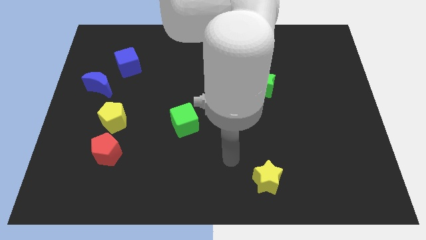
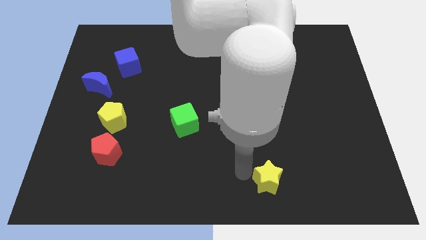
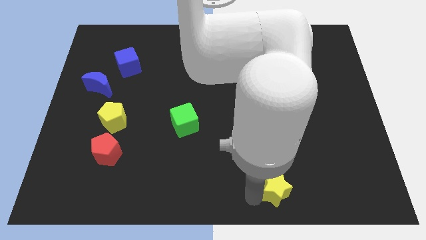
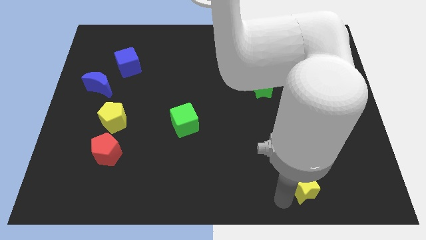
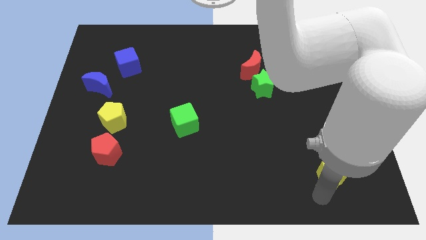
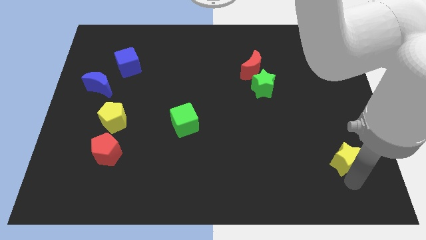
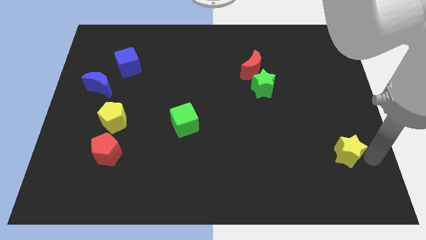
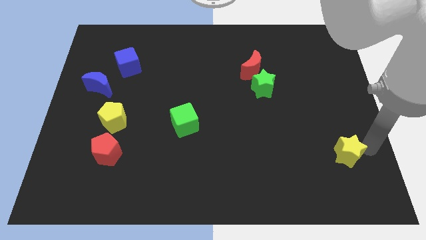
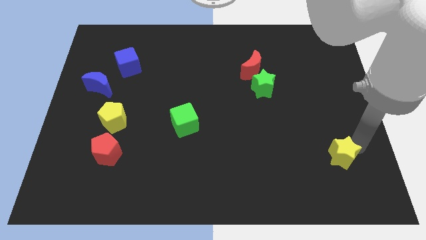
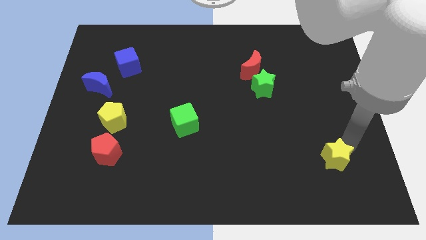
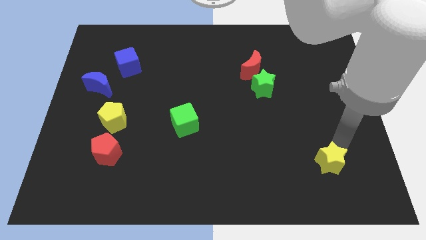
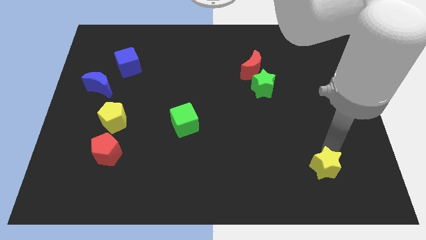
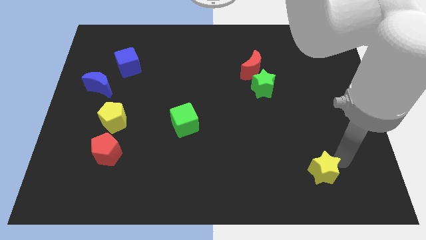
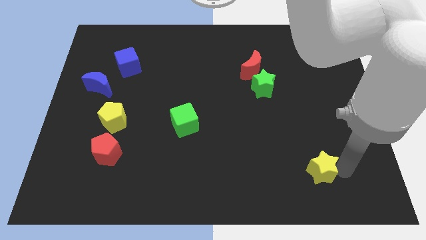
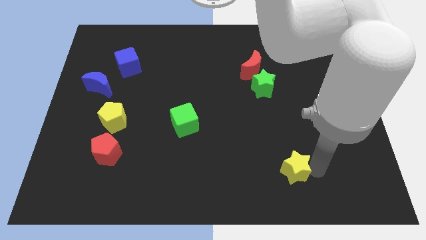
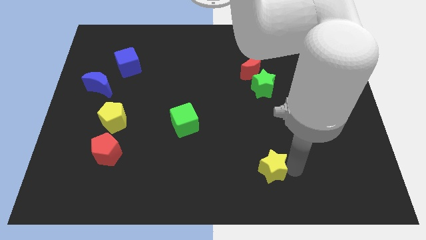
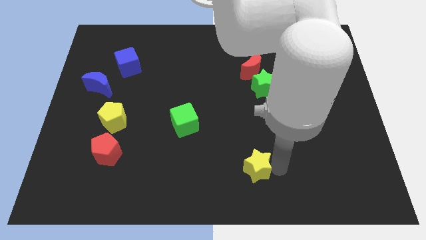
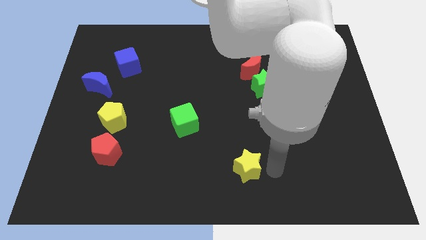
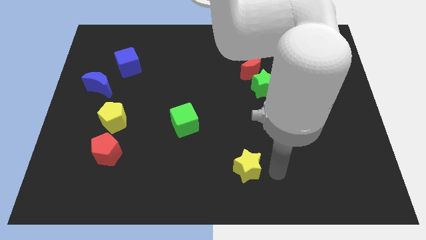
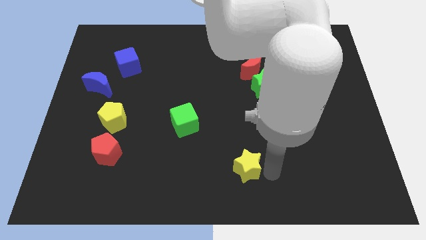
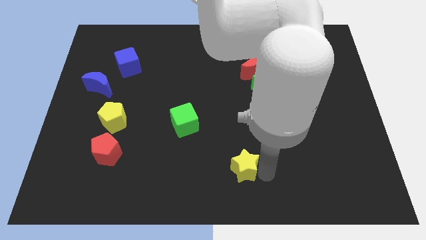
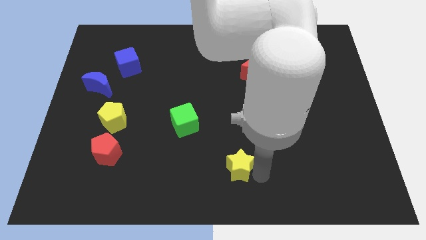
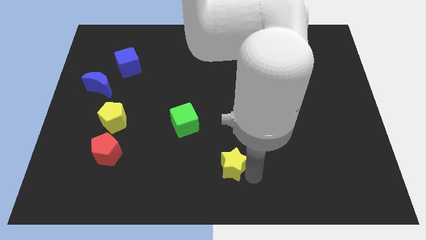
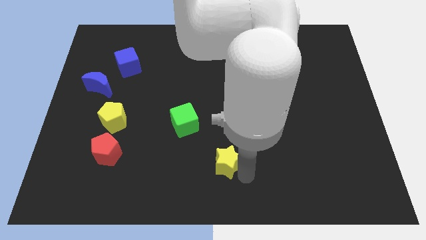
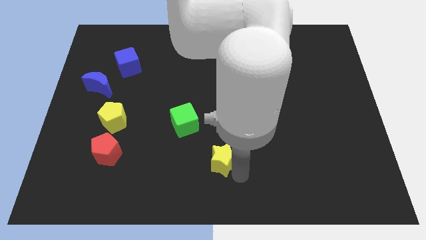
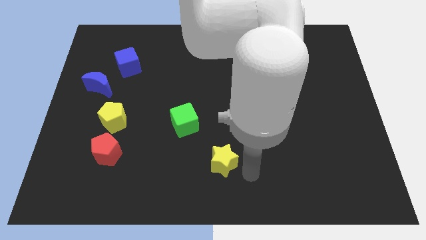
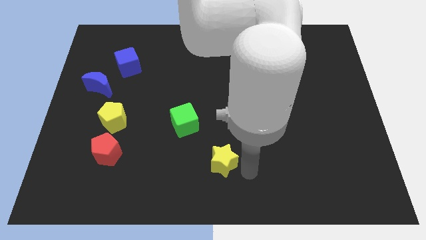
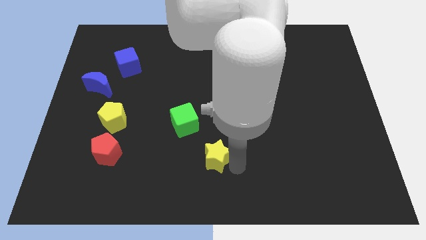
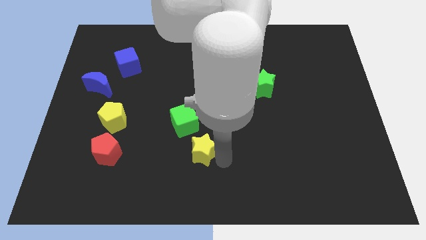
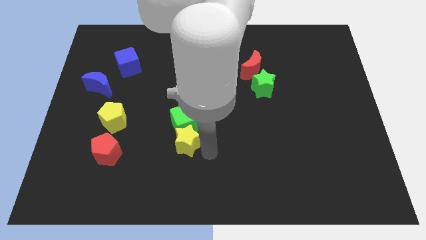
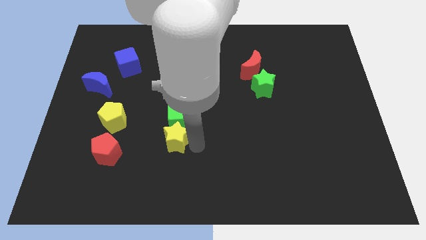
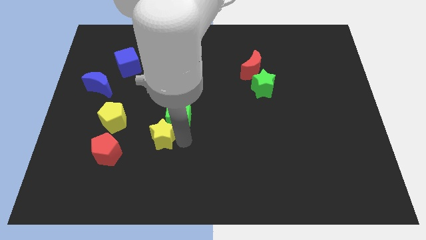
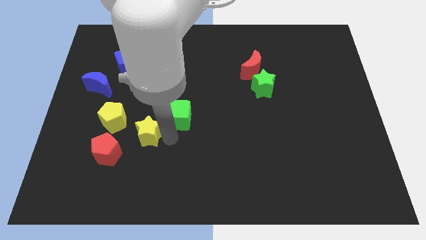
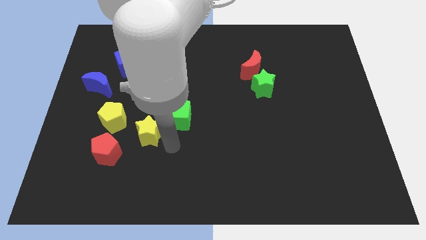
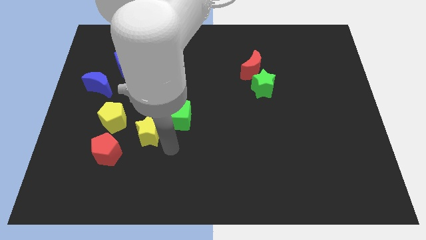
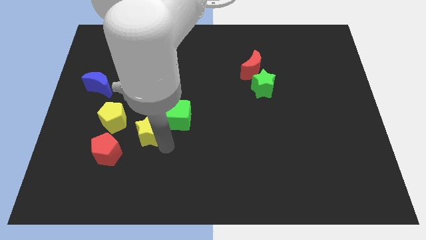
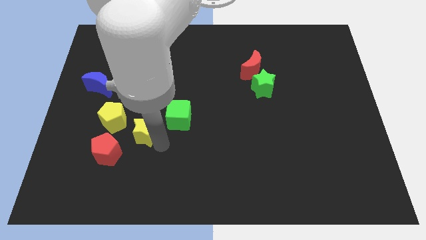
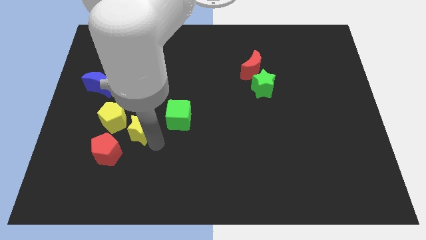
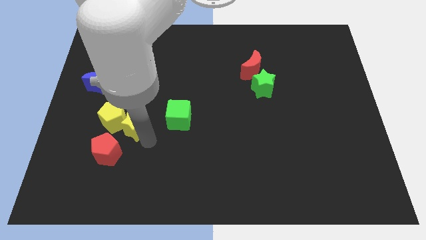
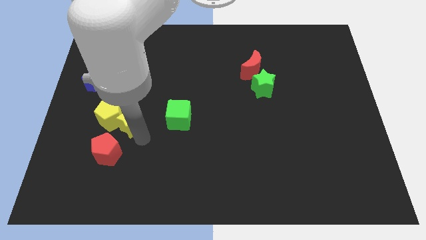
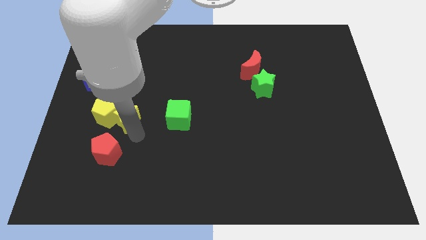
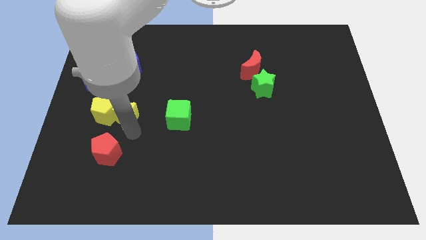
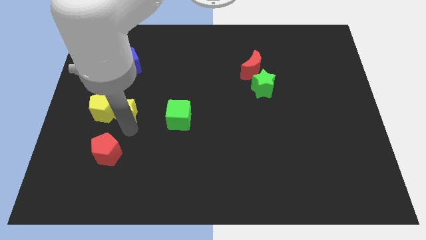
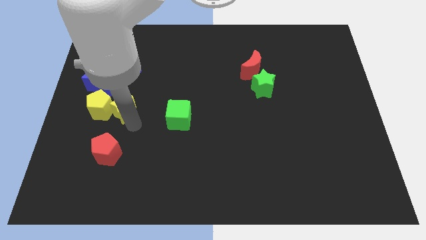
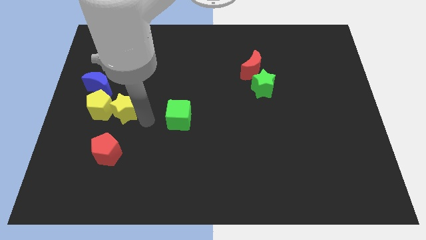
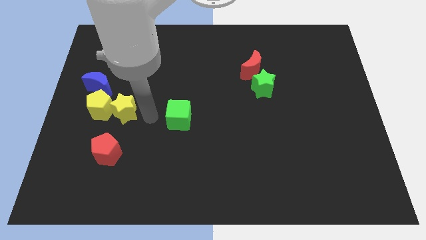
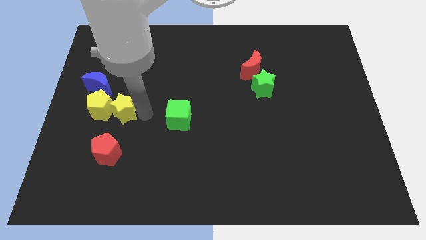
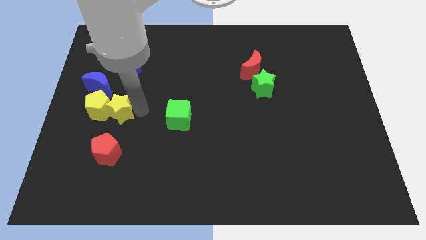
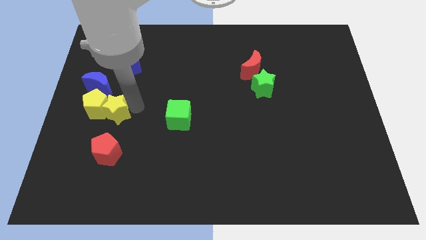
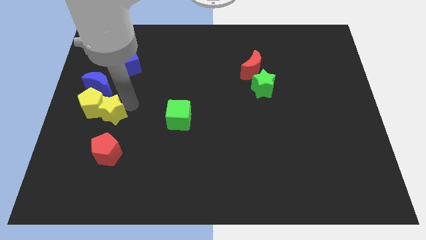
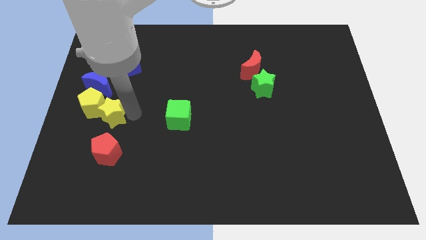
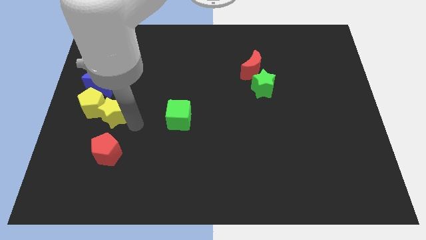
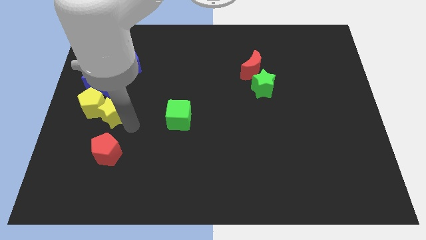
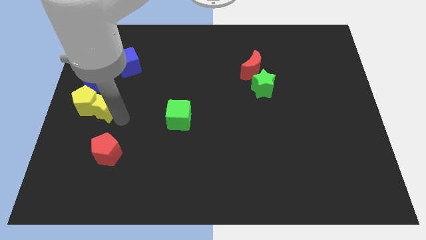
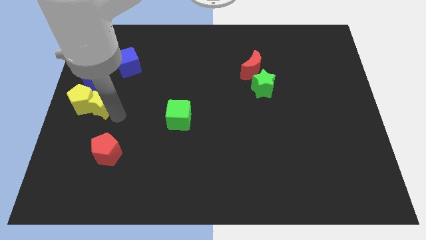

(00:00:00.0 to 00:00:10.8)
slide the yellow star to the left side

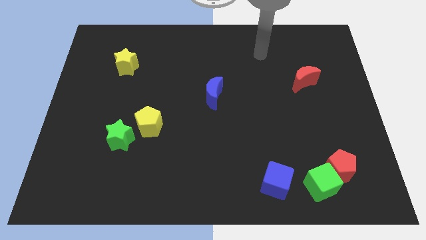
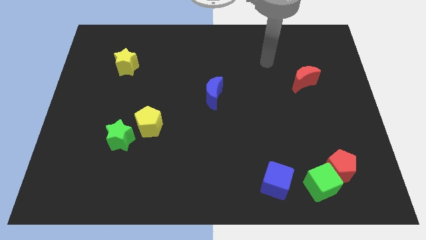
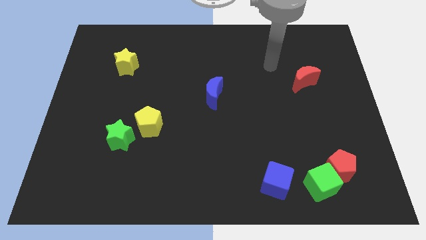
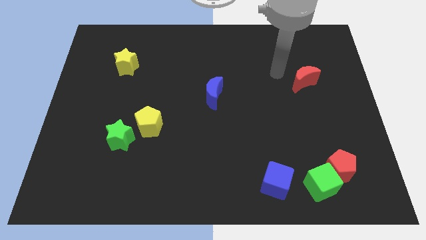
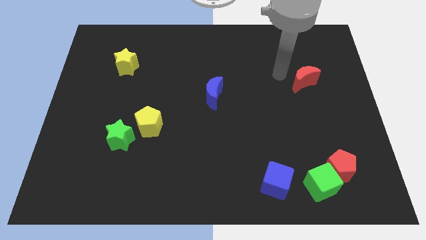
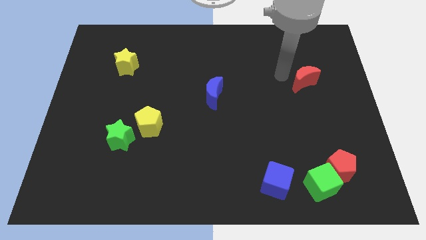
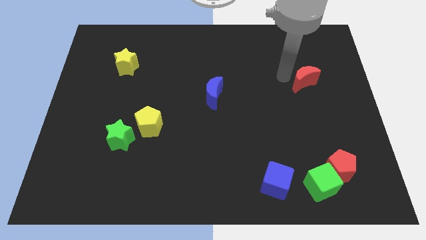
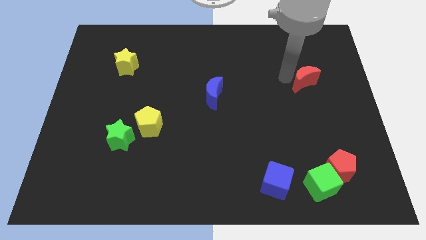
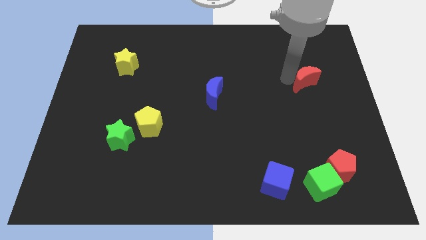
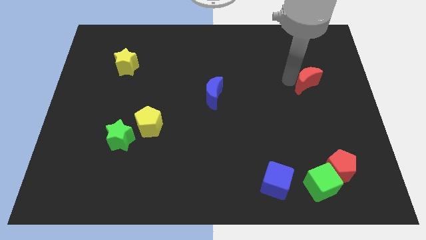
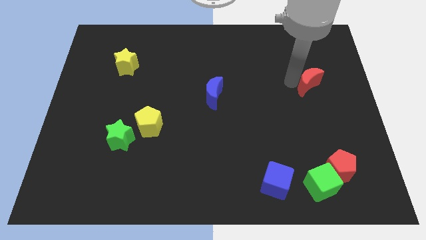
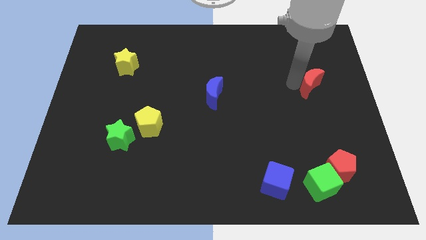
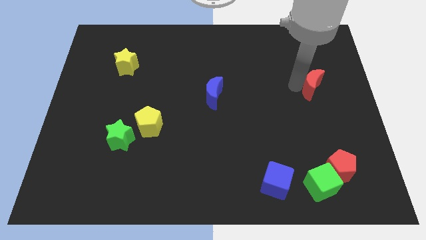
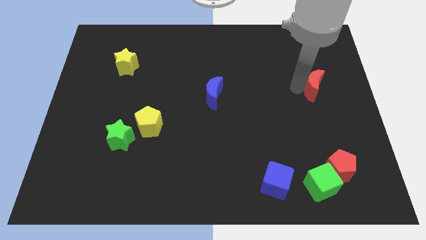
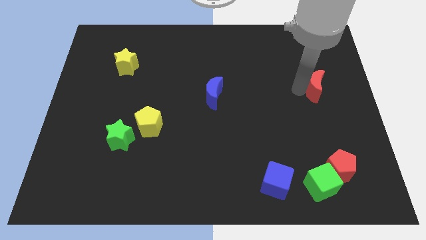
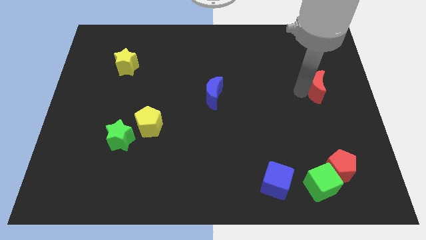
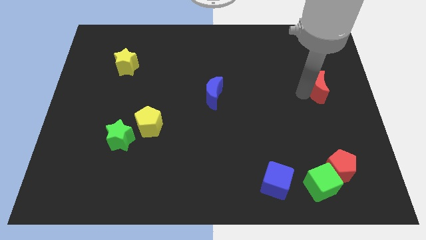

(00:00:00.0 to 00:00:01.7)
push the red moon to the right side
